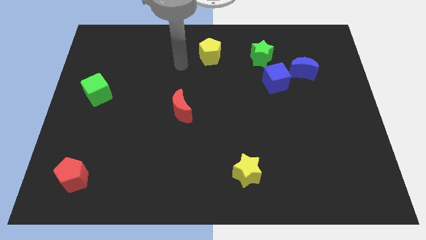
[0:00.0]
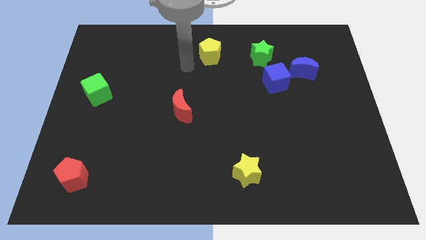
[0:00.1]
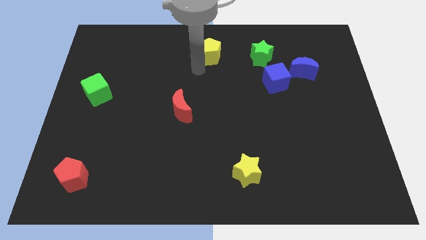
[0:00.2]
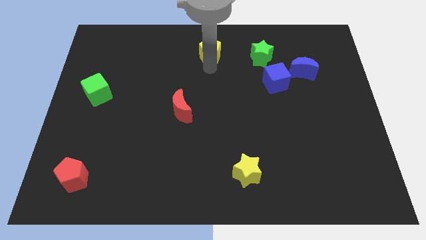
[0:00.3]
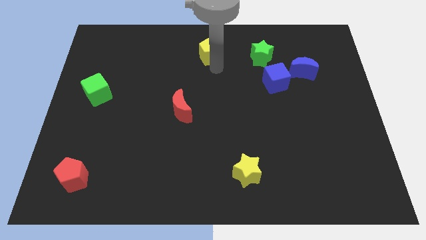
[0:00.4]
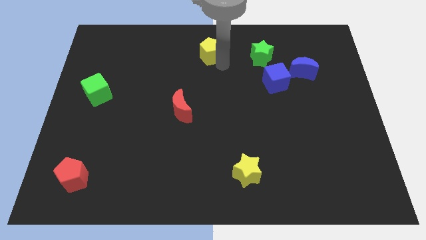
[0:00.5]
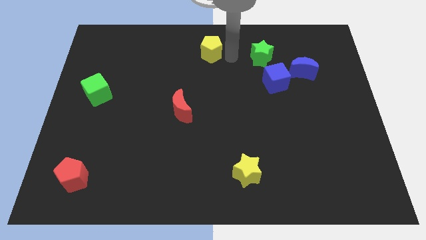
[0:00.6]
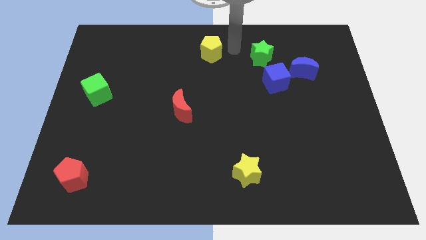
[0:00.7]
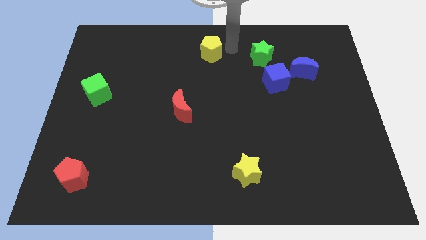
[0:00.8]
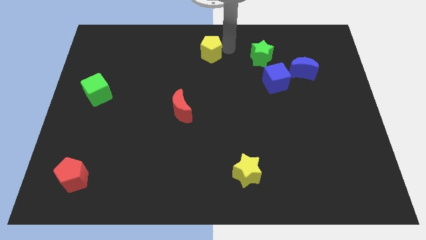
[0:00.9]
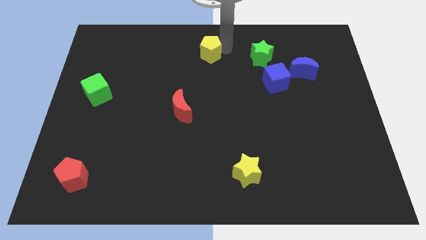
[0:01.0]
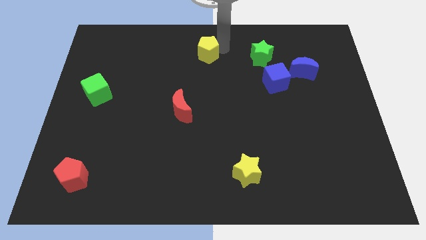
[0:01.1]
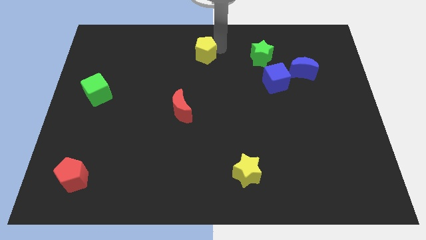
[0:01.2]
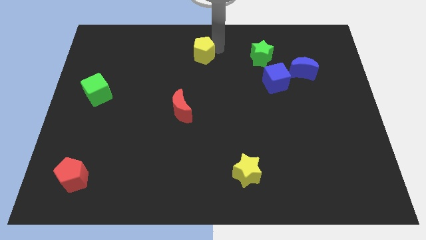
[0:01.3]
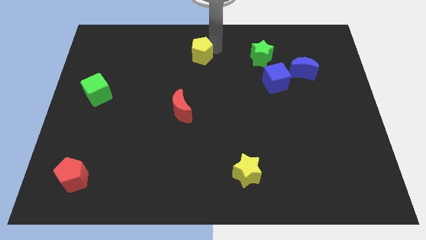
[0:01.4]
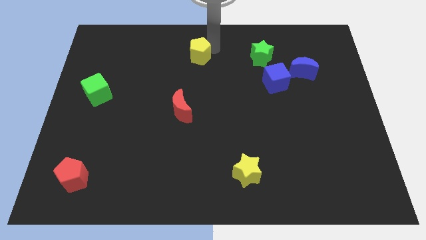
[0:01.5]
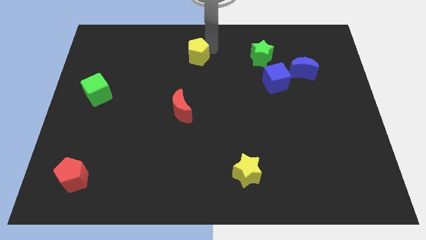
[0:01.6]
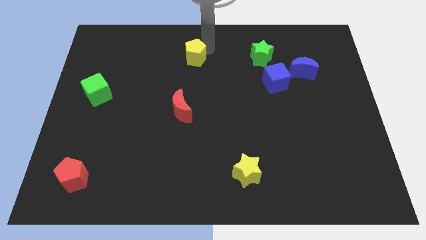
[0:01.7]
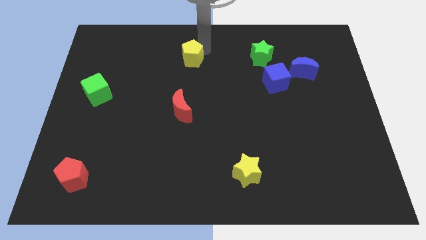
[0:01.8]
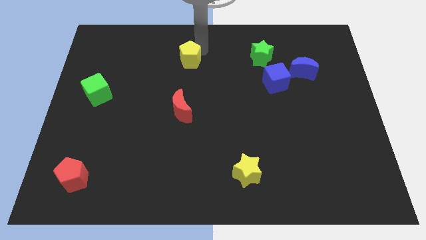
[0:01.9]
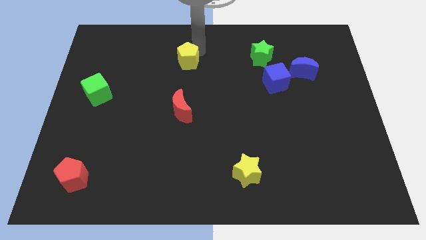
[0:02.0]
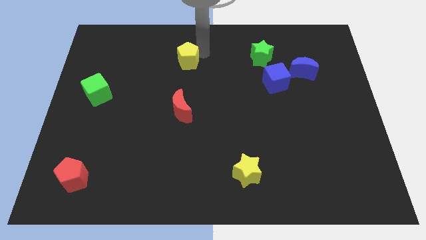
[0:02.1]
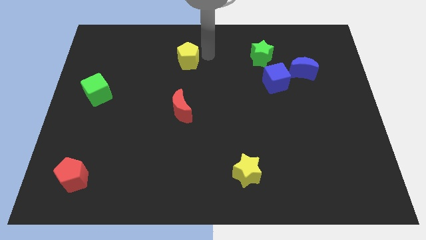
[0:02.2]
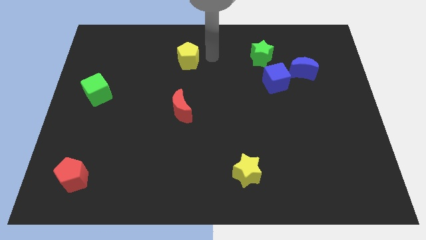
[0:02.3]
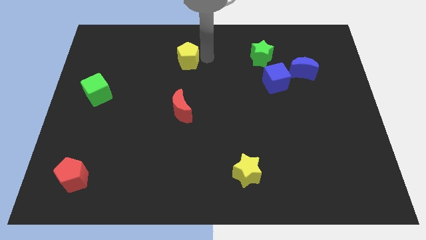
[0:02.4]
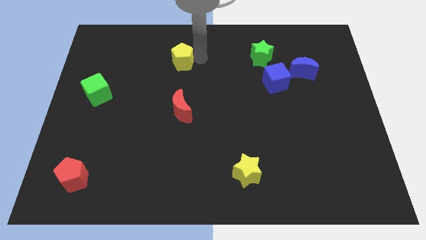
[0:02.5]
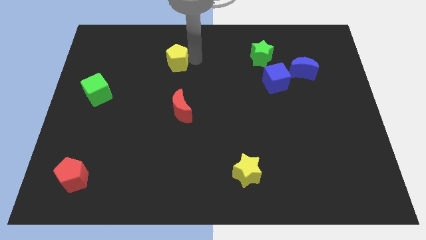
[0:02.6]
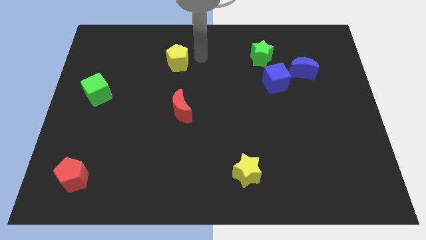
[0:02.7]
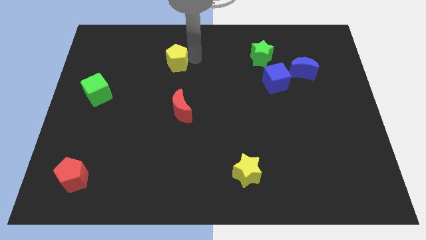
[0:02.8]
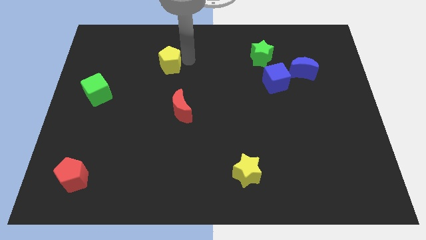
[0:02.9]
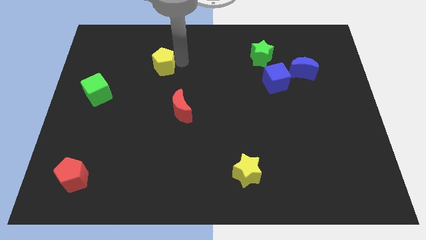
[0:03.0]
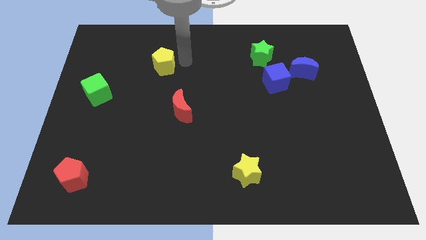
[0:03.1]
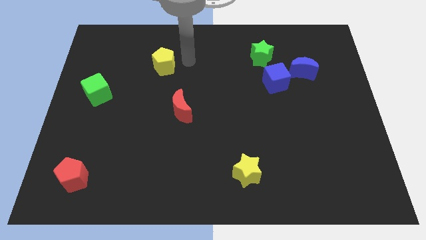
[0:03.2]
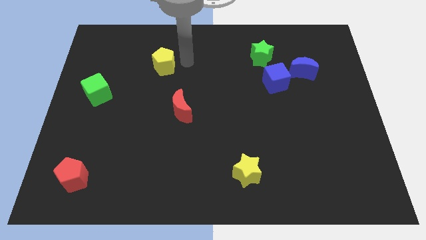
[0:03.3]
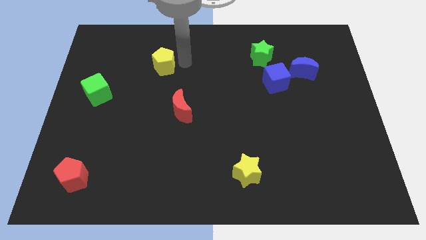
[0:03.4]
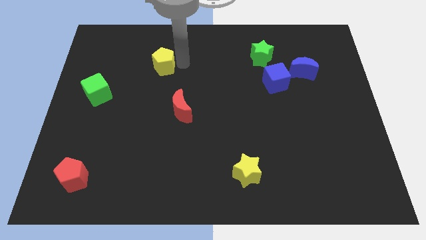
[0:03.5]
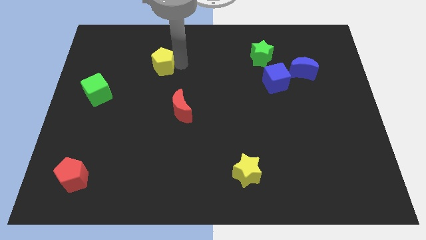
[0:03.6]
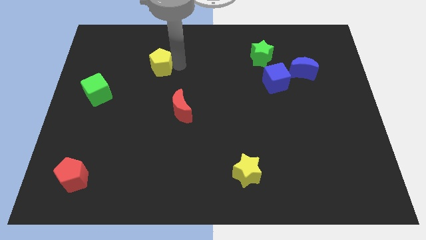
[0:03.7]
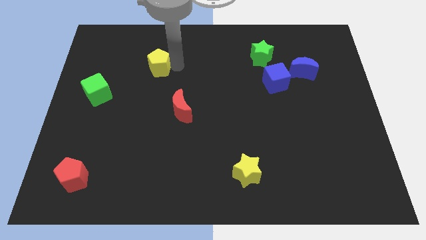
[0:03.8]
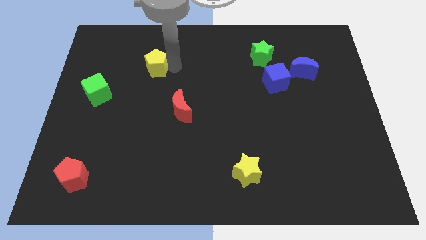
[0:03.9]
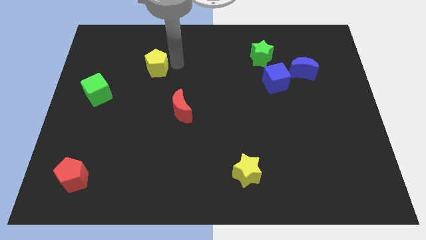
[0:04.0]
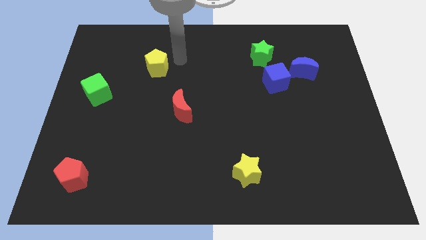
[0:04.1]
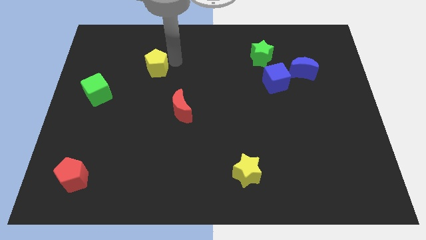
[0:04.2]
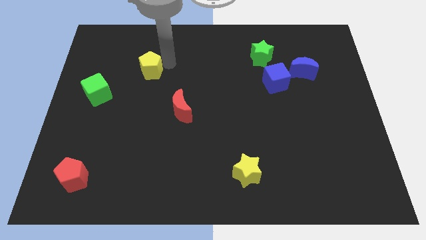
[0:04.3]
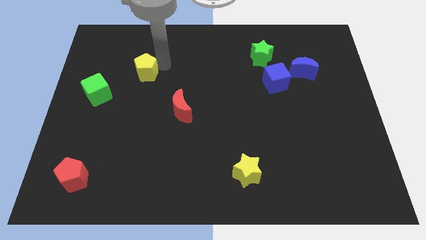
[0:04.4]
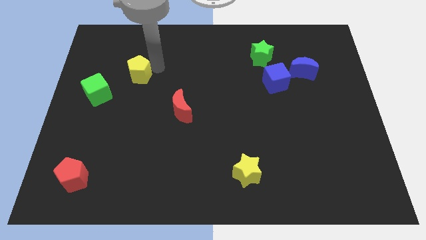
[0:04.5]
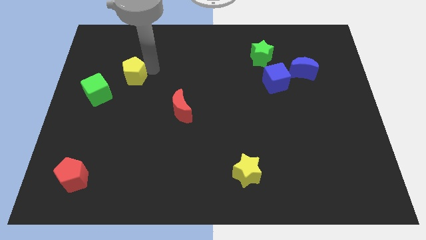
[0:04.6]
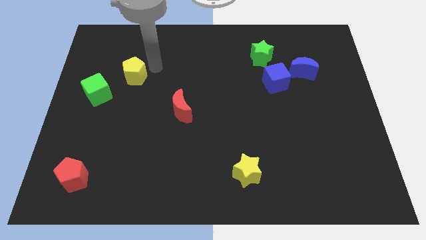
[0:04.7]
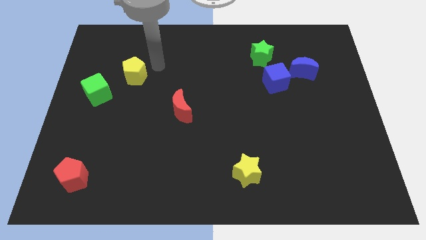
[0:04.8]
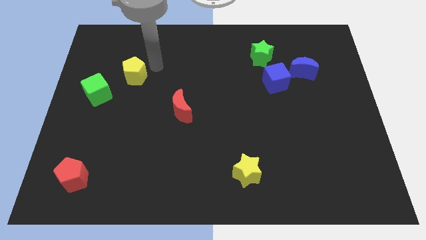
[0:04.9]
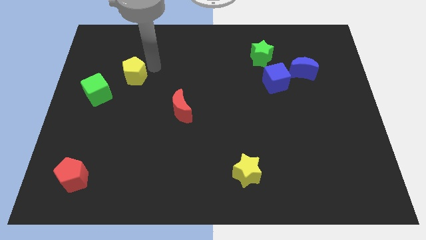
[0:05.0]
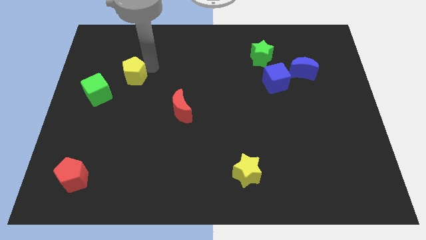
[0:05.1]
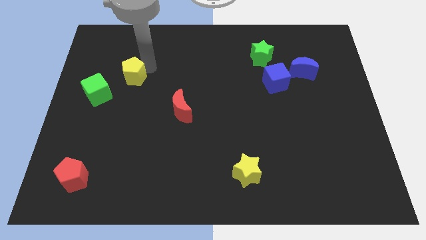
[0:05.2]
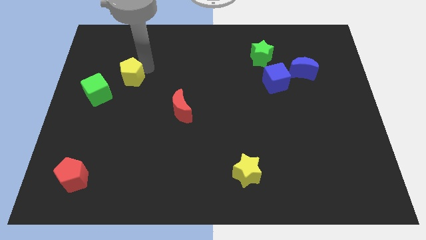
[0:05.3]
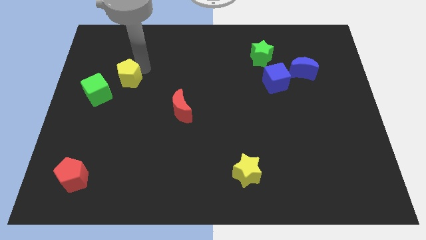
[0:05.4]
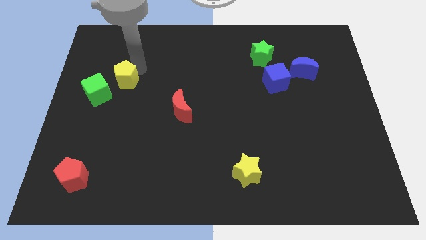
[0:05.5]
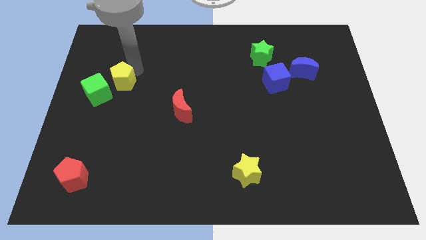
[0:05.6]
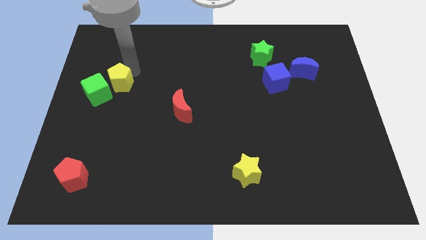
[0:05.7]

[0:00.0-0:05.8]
slide the yellow pentagon to the green cube

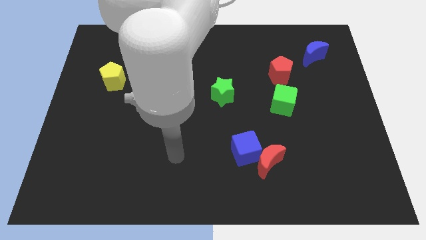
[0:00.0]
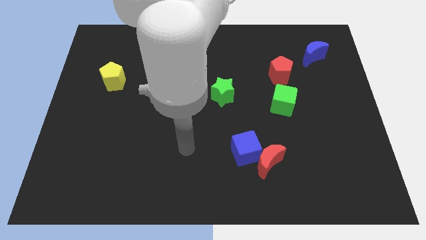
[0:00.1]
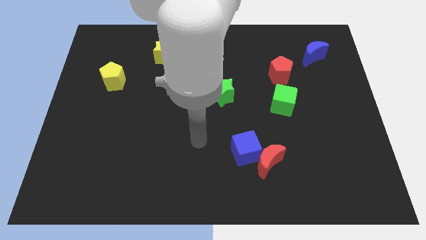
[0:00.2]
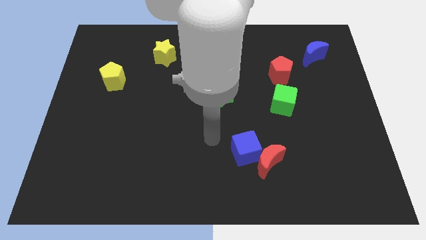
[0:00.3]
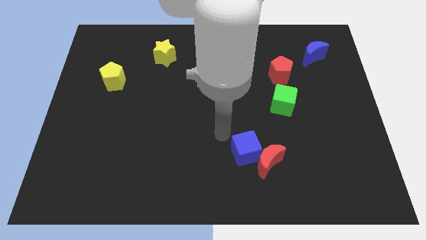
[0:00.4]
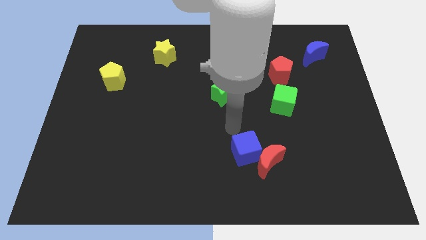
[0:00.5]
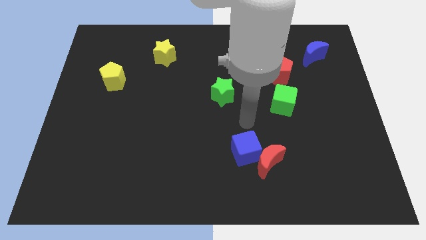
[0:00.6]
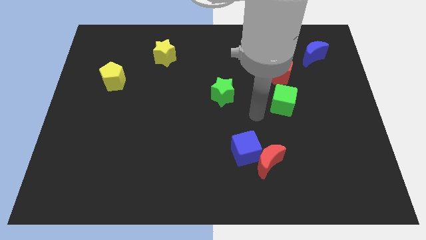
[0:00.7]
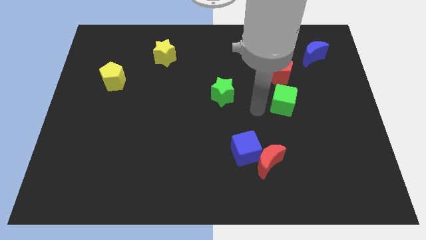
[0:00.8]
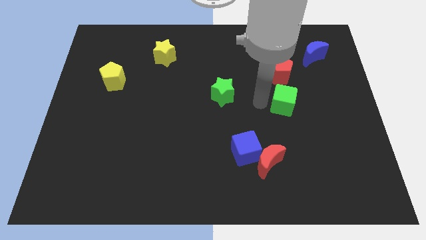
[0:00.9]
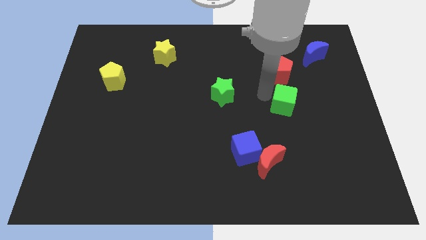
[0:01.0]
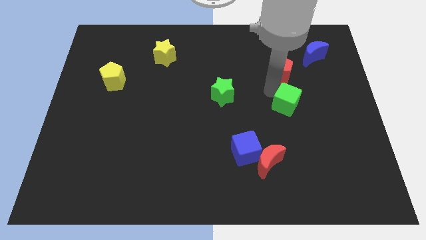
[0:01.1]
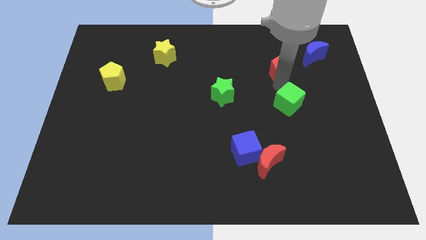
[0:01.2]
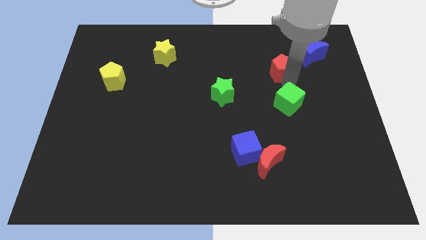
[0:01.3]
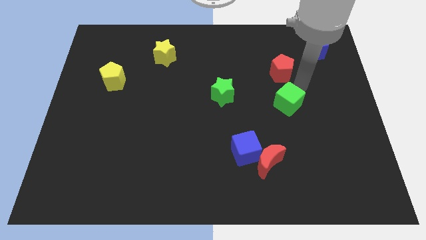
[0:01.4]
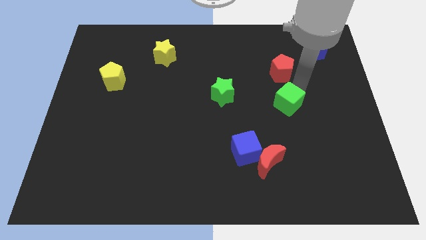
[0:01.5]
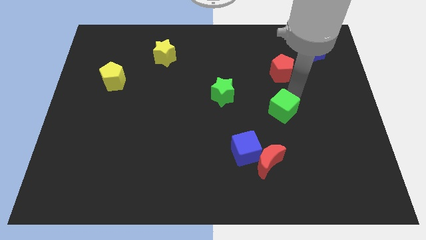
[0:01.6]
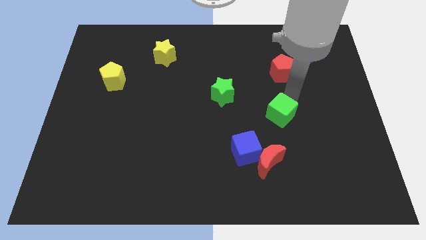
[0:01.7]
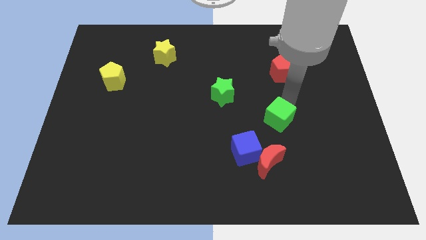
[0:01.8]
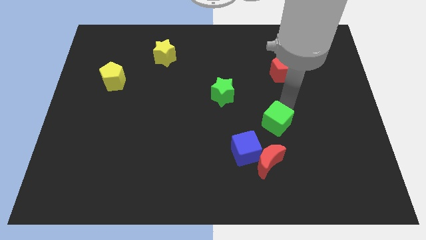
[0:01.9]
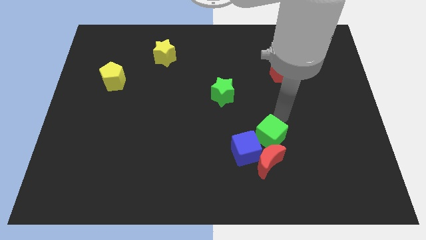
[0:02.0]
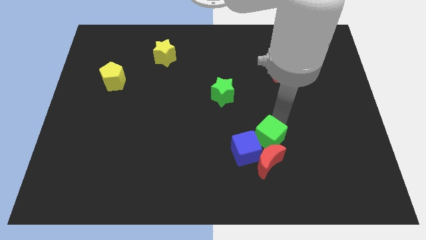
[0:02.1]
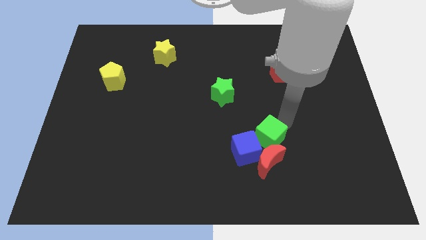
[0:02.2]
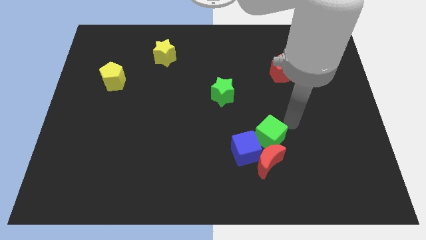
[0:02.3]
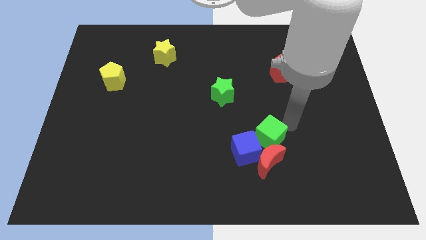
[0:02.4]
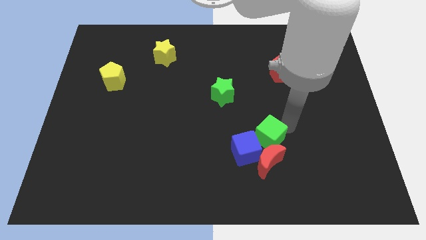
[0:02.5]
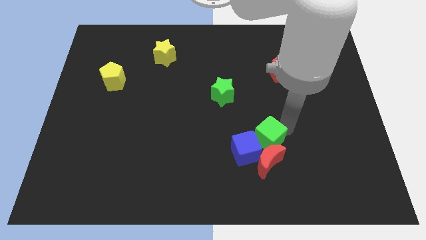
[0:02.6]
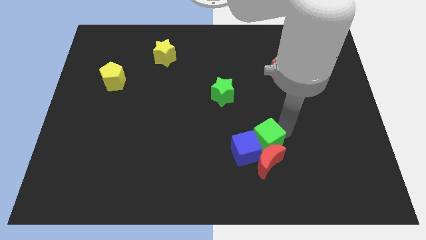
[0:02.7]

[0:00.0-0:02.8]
put the green cube to the blue cube
